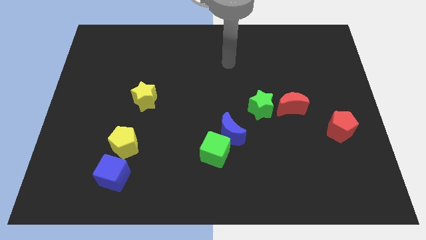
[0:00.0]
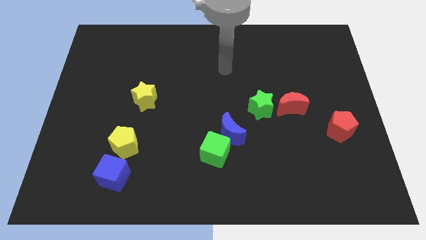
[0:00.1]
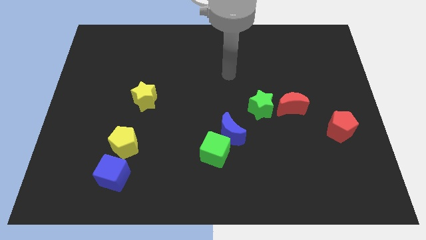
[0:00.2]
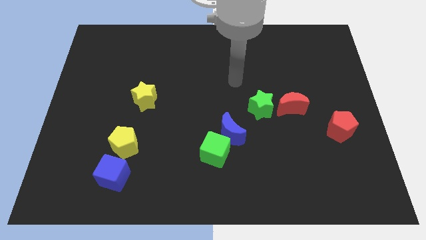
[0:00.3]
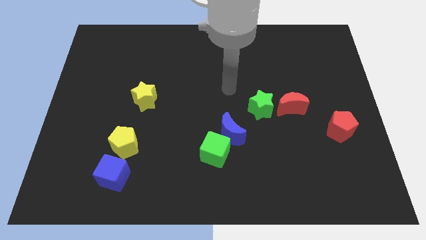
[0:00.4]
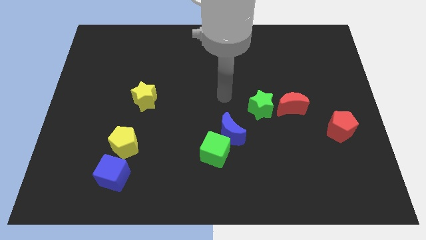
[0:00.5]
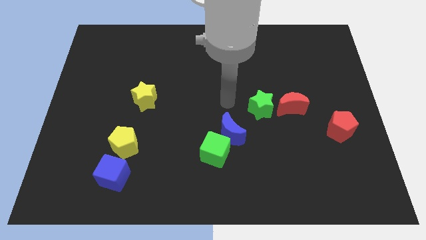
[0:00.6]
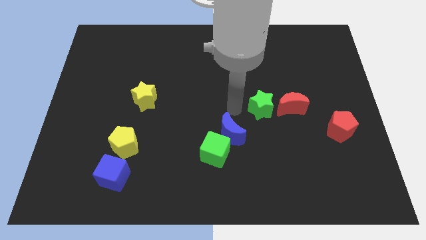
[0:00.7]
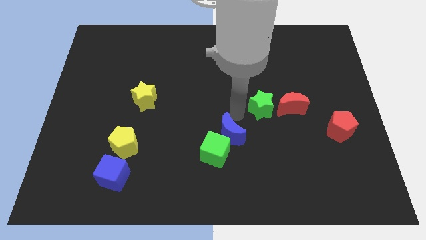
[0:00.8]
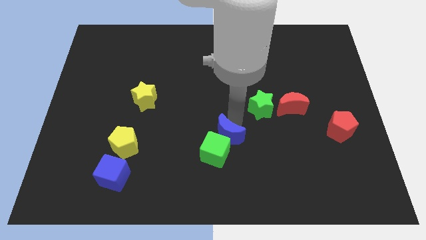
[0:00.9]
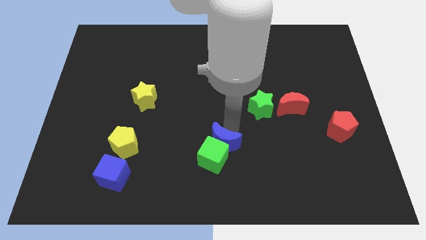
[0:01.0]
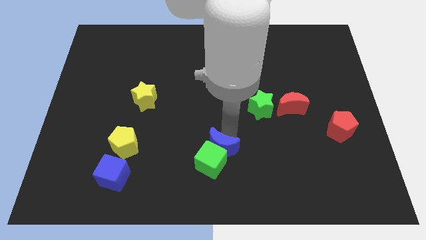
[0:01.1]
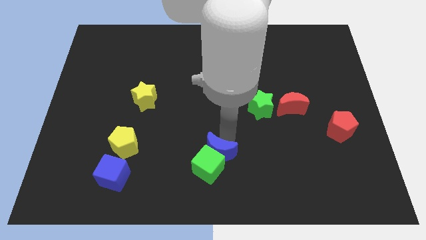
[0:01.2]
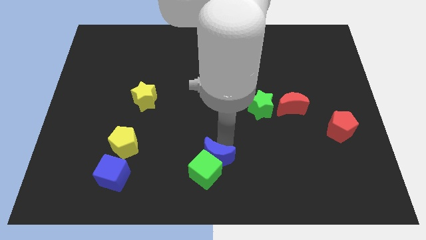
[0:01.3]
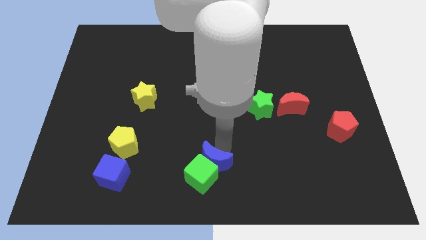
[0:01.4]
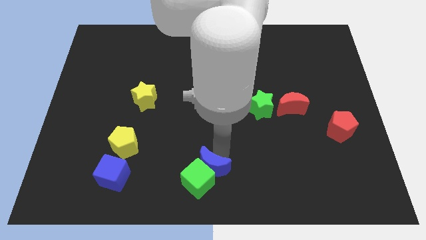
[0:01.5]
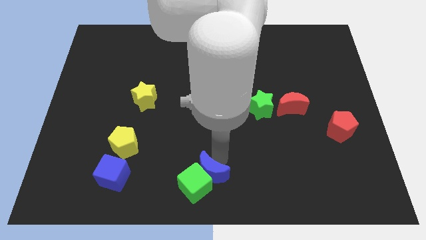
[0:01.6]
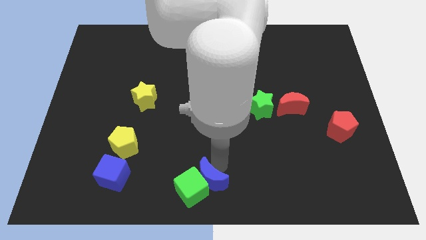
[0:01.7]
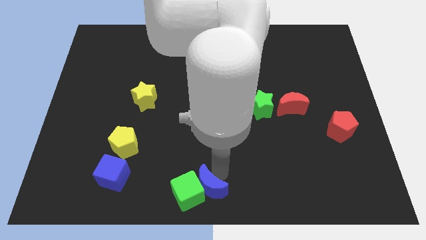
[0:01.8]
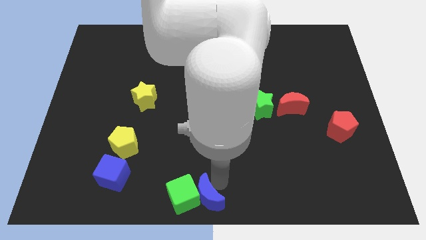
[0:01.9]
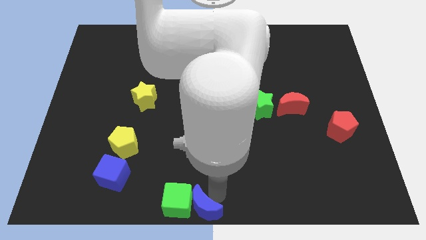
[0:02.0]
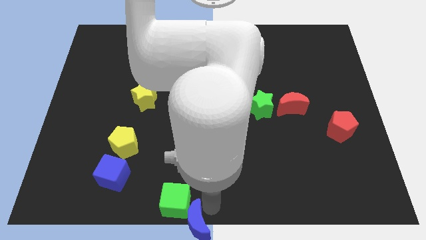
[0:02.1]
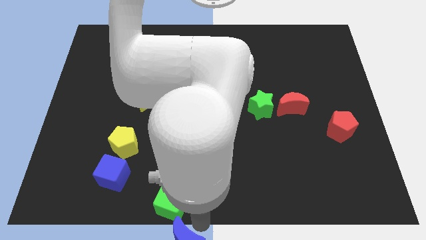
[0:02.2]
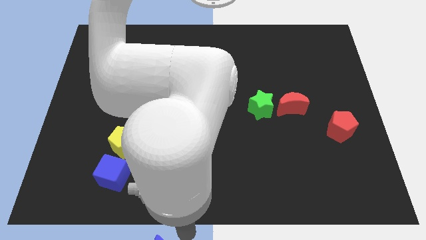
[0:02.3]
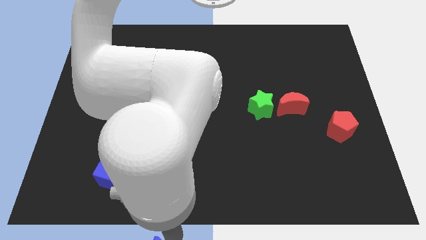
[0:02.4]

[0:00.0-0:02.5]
move the green cube away from the blue moon

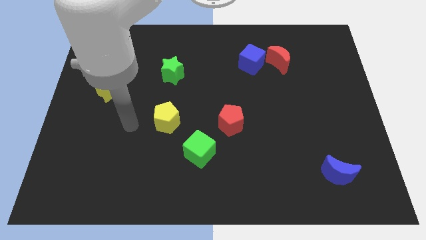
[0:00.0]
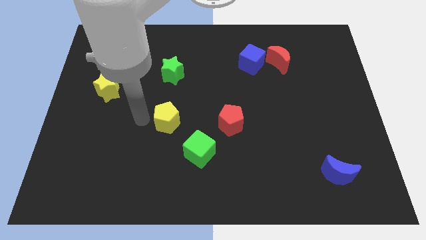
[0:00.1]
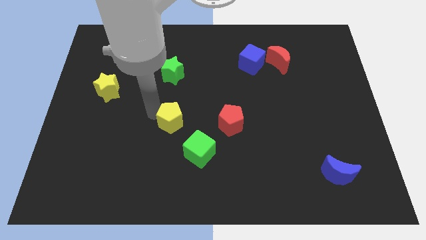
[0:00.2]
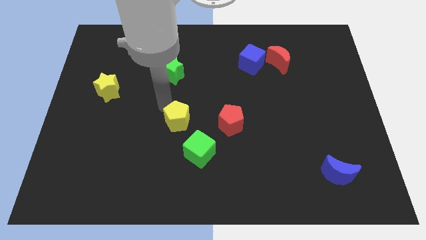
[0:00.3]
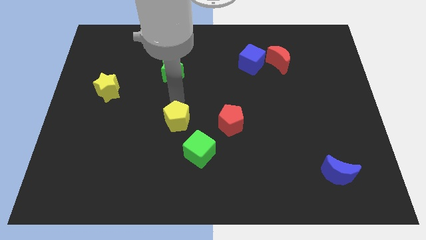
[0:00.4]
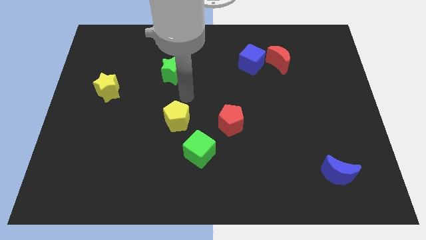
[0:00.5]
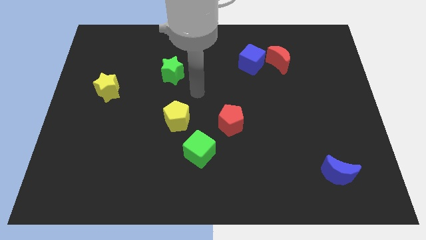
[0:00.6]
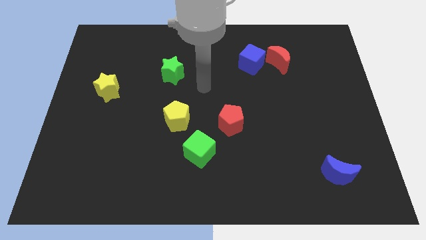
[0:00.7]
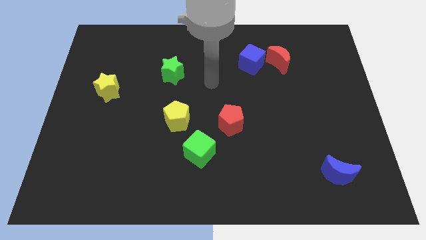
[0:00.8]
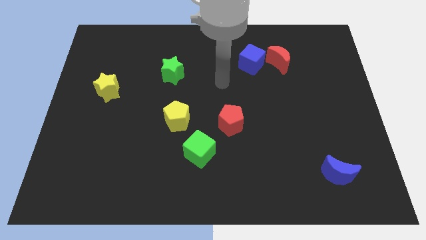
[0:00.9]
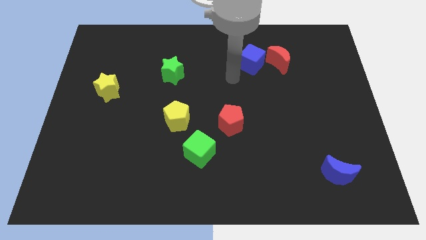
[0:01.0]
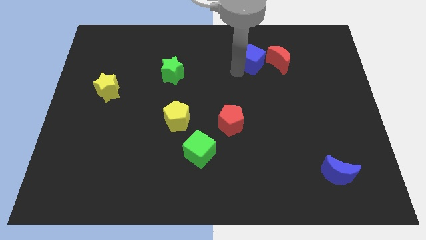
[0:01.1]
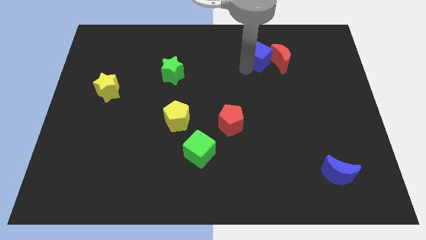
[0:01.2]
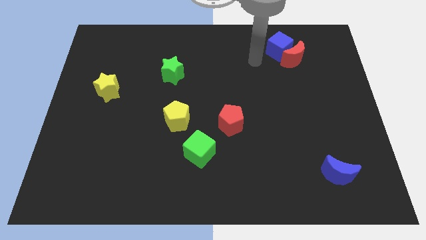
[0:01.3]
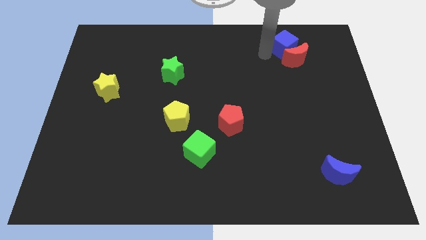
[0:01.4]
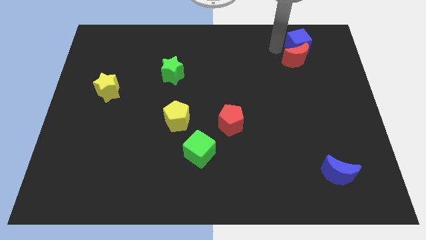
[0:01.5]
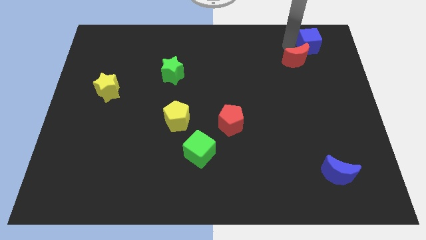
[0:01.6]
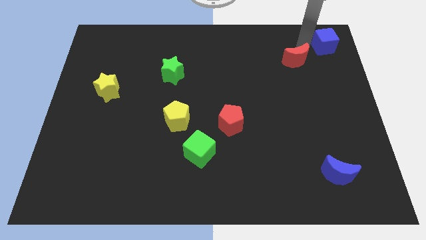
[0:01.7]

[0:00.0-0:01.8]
separate the red moon from the blue cube

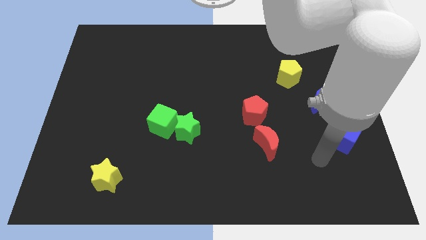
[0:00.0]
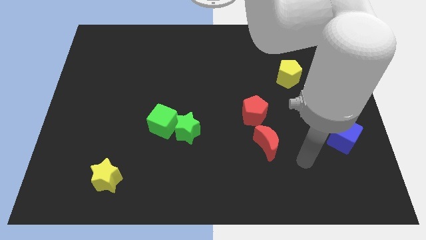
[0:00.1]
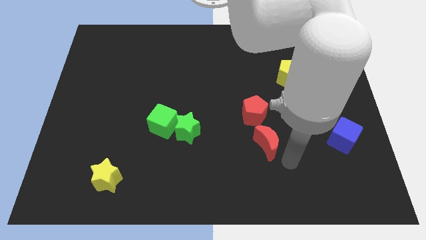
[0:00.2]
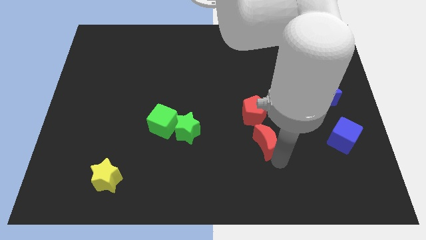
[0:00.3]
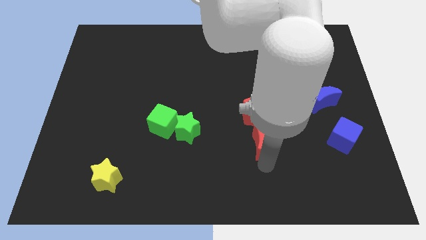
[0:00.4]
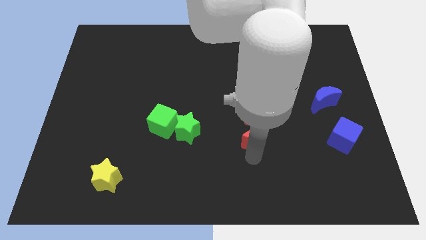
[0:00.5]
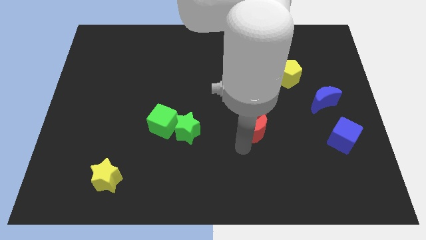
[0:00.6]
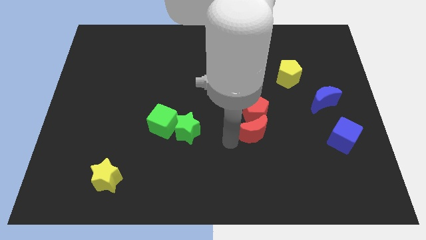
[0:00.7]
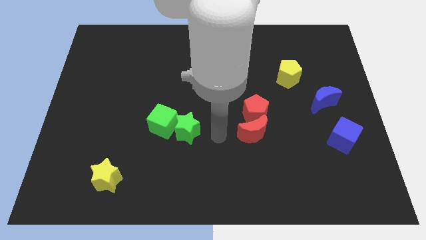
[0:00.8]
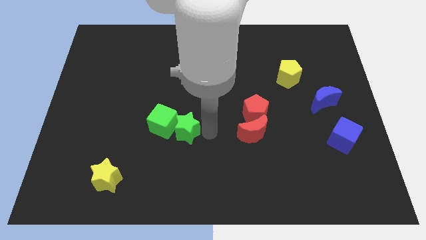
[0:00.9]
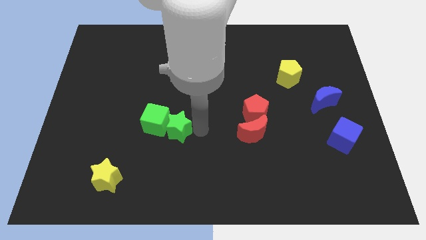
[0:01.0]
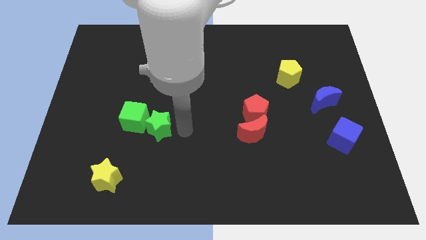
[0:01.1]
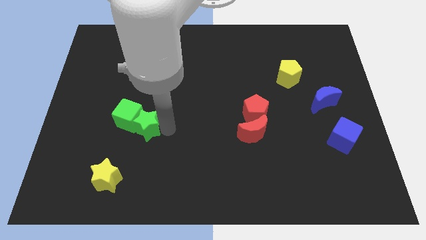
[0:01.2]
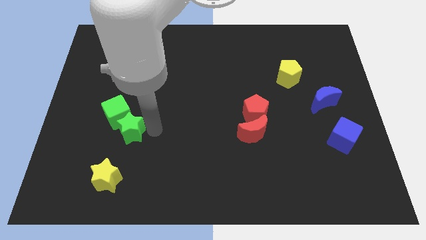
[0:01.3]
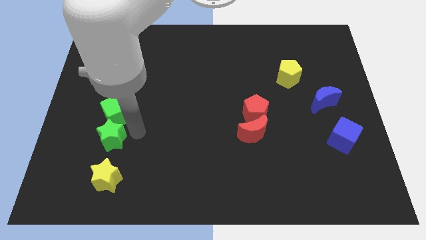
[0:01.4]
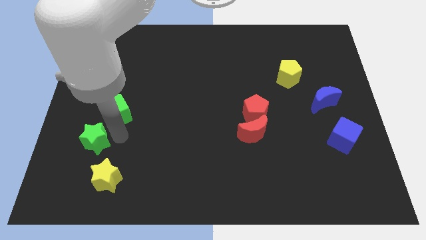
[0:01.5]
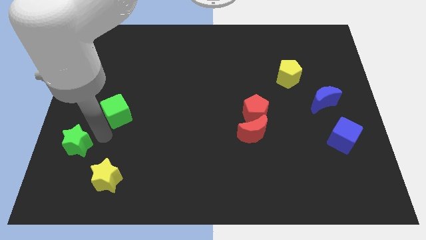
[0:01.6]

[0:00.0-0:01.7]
pull the green cube apart from the green star

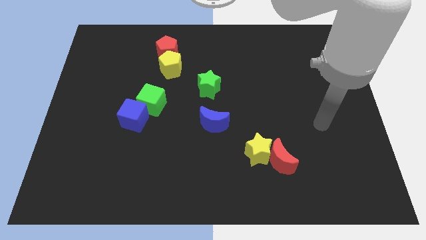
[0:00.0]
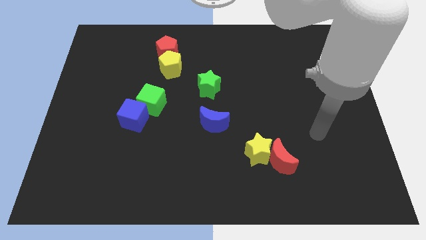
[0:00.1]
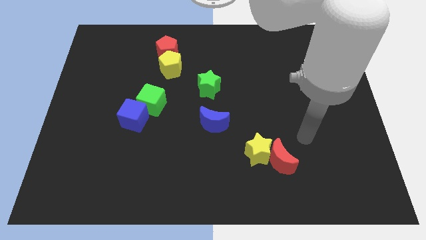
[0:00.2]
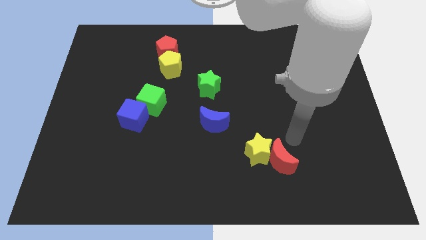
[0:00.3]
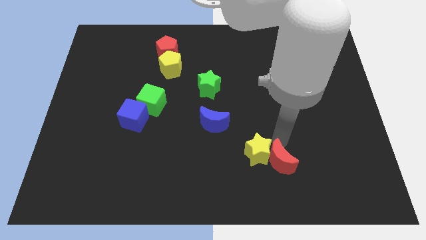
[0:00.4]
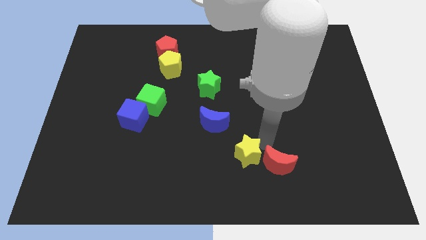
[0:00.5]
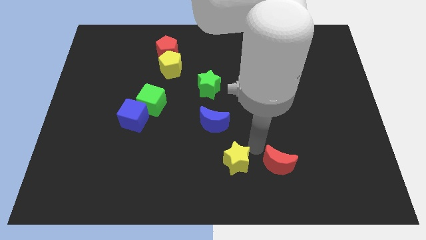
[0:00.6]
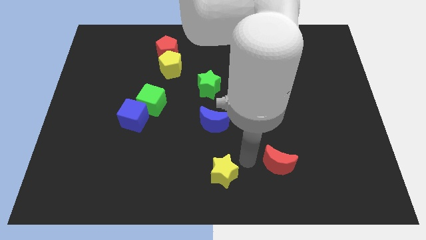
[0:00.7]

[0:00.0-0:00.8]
separate the red moon from the yellow star

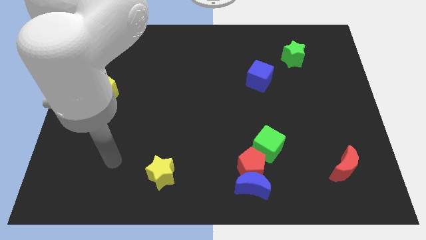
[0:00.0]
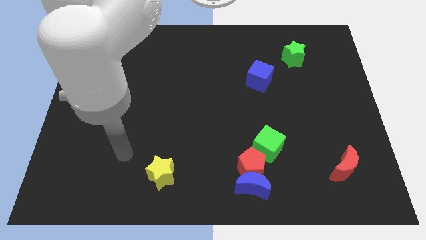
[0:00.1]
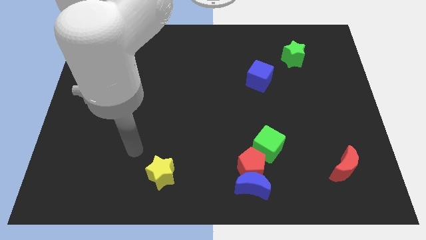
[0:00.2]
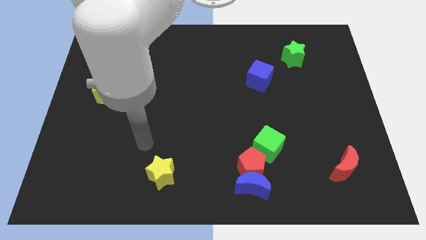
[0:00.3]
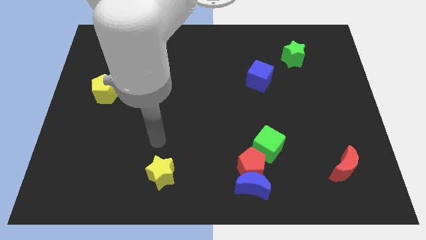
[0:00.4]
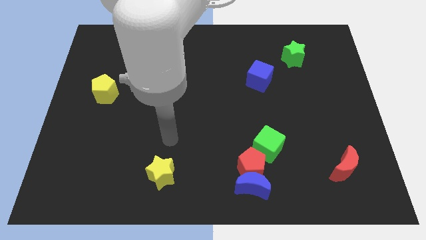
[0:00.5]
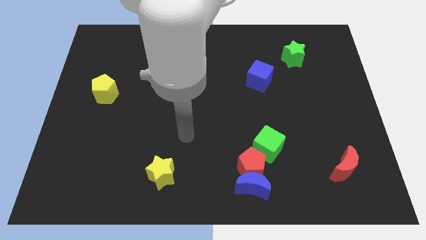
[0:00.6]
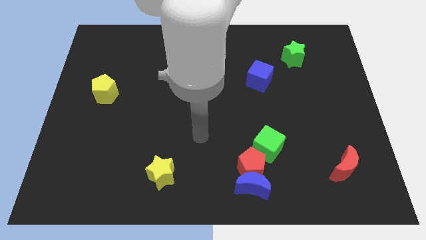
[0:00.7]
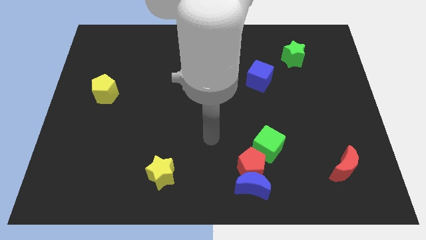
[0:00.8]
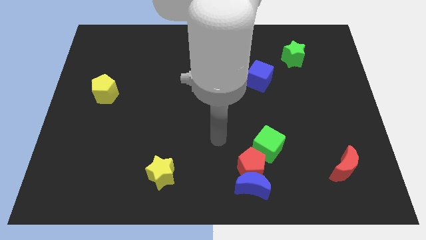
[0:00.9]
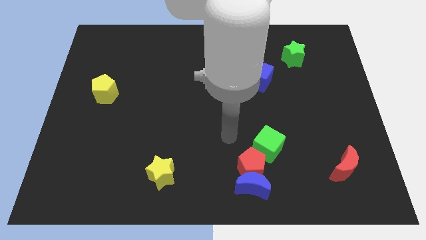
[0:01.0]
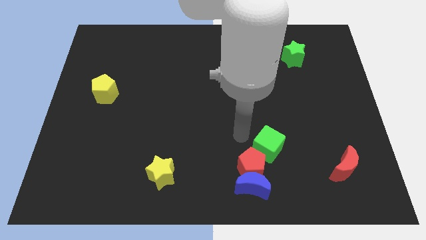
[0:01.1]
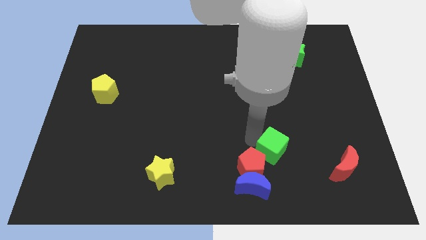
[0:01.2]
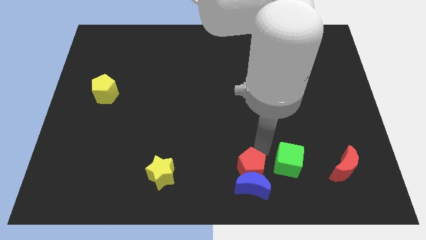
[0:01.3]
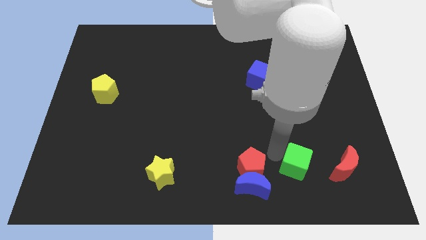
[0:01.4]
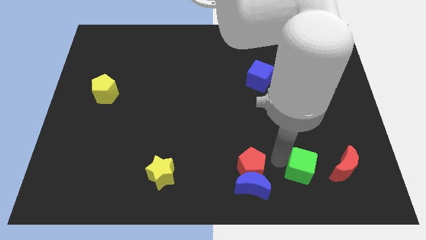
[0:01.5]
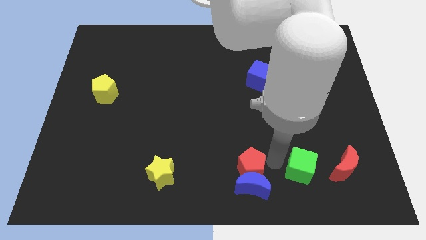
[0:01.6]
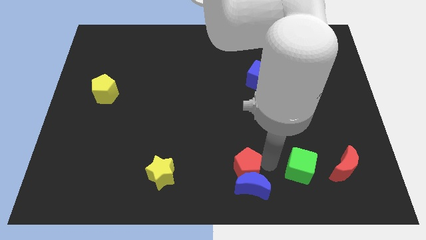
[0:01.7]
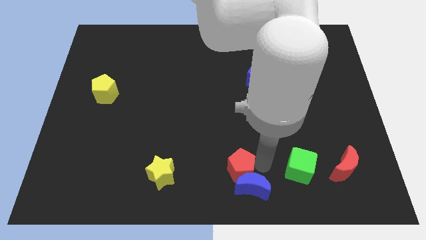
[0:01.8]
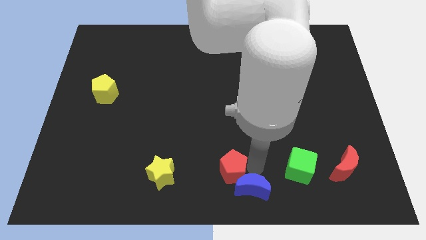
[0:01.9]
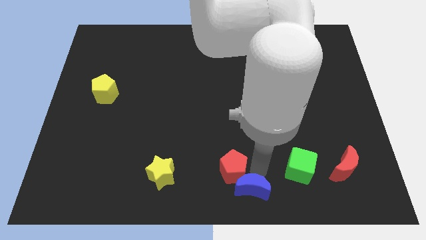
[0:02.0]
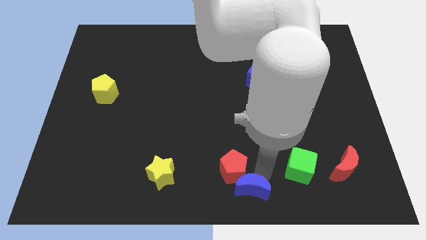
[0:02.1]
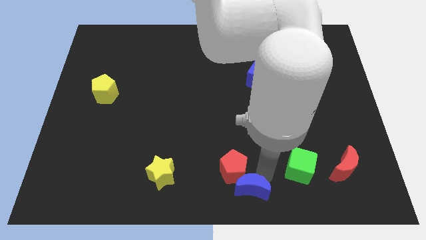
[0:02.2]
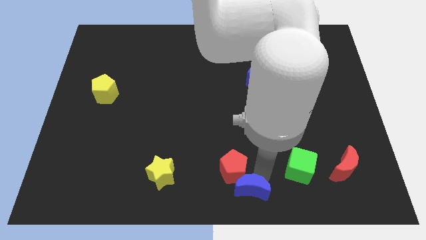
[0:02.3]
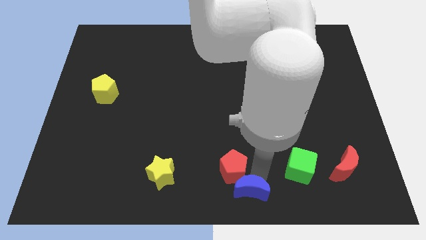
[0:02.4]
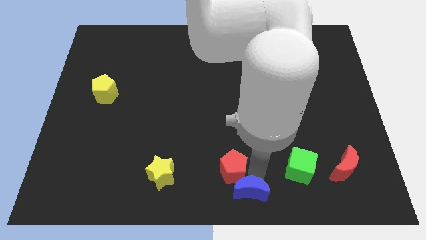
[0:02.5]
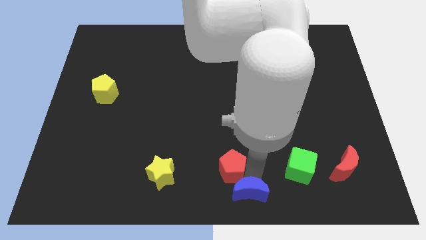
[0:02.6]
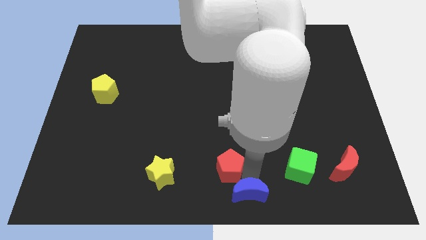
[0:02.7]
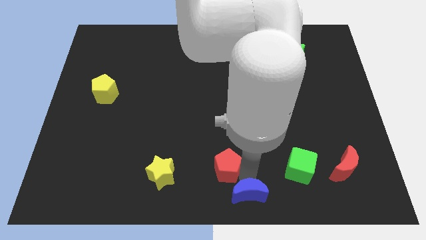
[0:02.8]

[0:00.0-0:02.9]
separate the red pentagon from the blue moon and green cube
